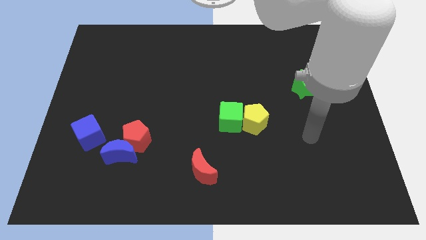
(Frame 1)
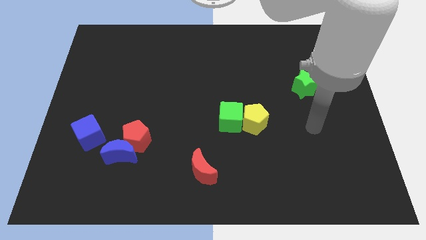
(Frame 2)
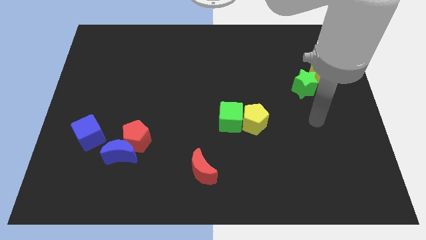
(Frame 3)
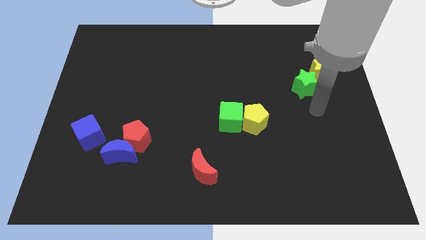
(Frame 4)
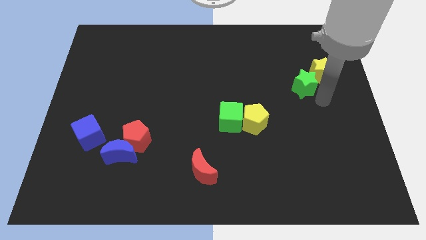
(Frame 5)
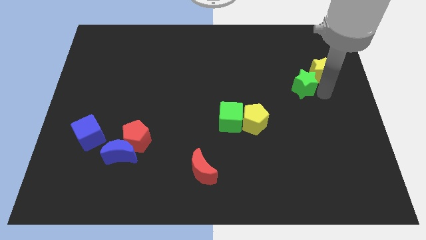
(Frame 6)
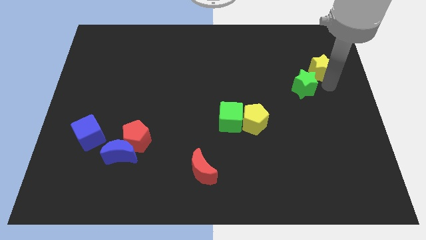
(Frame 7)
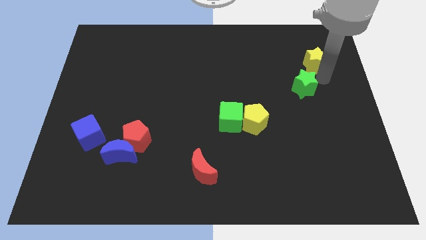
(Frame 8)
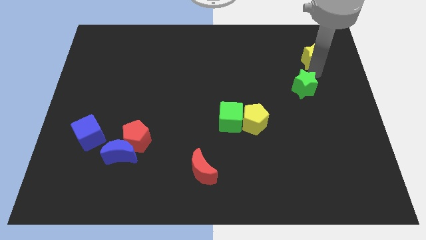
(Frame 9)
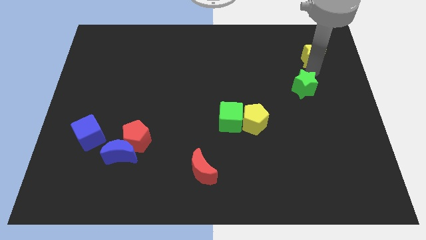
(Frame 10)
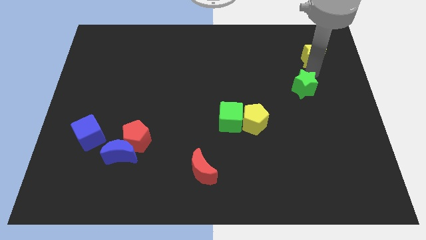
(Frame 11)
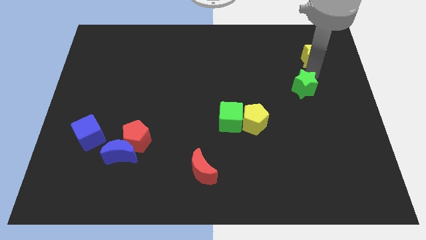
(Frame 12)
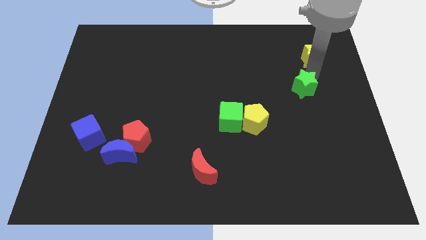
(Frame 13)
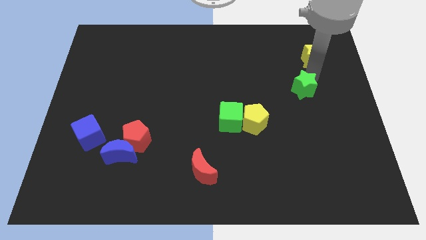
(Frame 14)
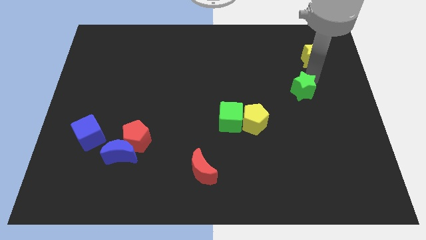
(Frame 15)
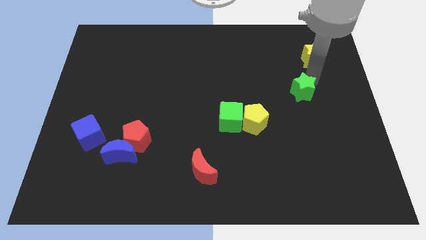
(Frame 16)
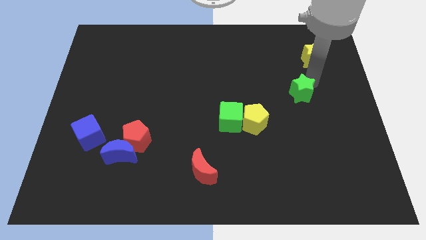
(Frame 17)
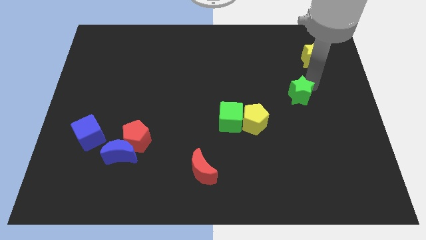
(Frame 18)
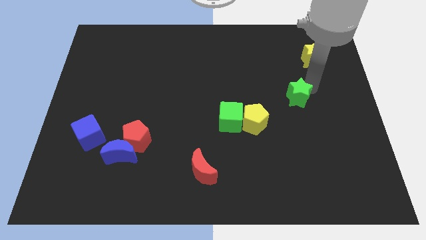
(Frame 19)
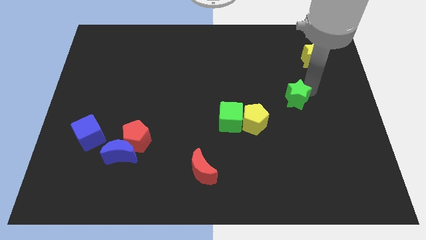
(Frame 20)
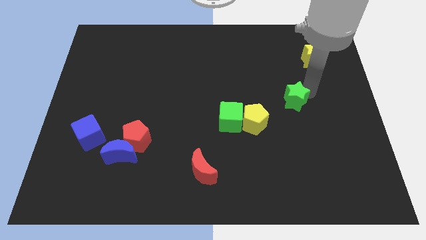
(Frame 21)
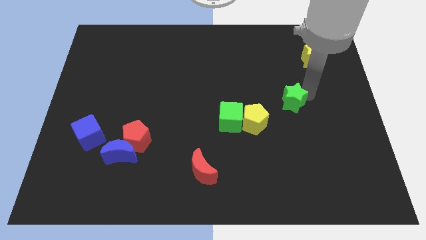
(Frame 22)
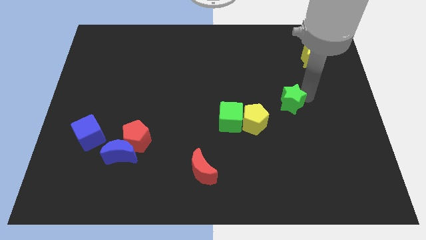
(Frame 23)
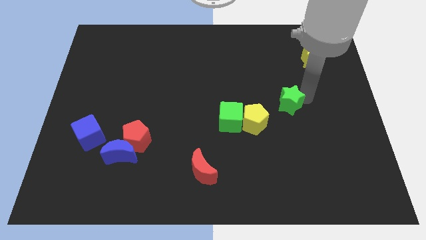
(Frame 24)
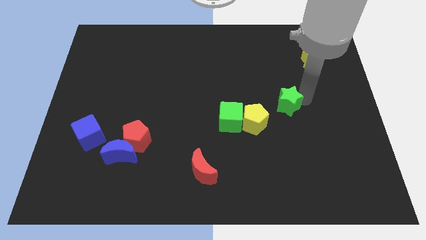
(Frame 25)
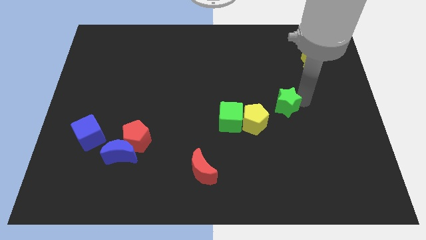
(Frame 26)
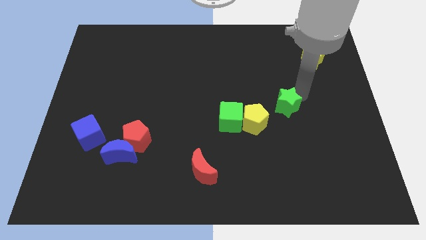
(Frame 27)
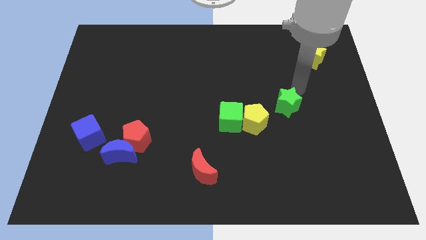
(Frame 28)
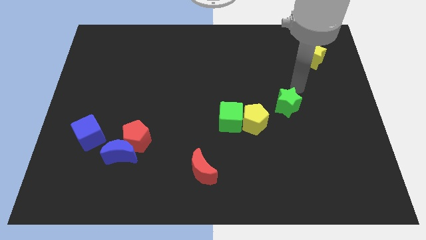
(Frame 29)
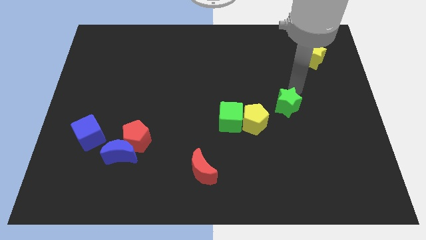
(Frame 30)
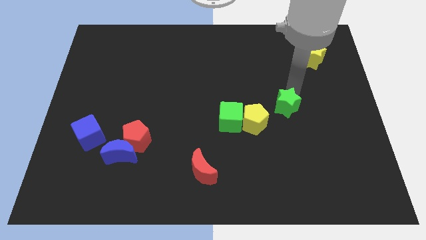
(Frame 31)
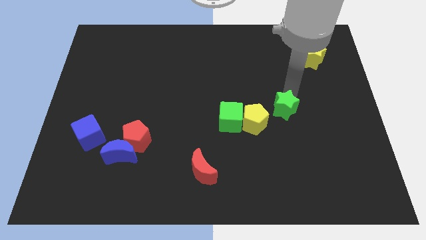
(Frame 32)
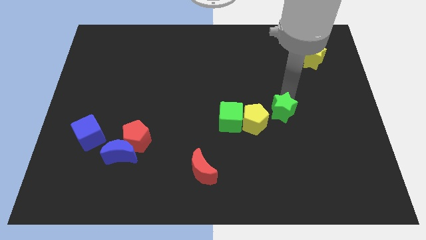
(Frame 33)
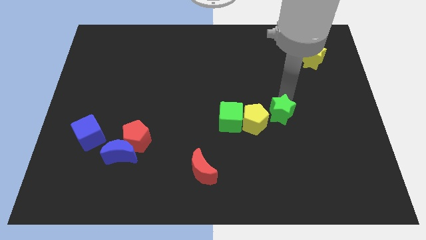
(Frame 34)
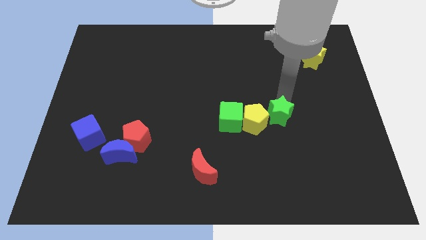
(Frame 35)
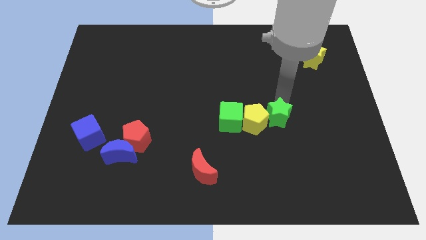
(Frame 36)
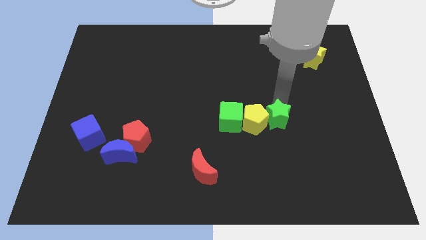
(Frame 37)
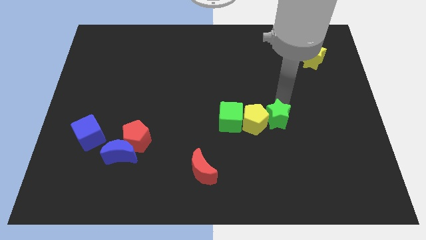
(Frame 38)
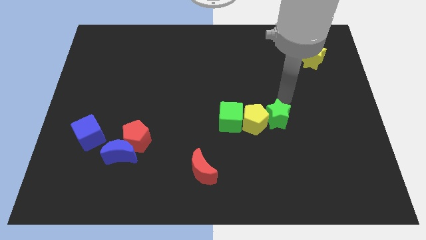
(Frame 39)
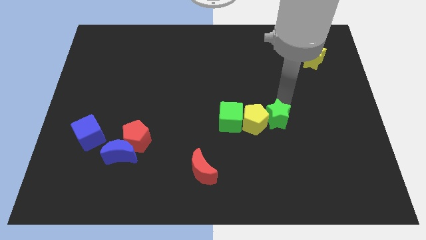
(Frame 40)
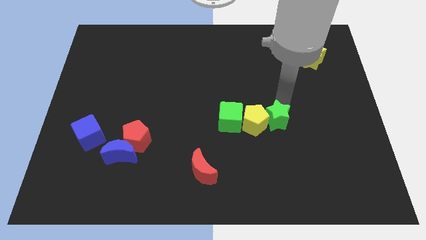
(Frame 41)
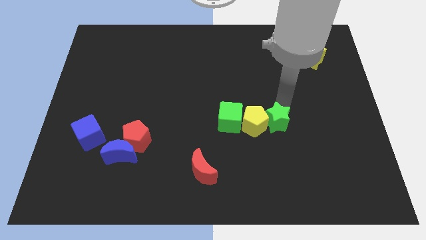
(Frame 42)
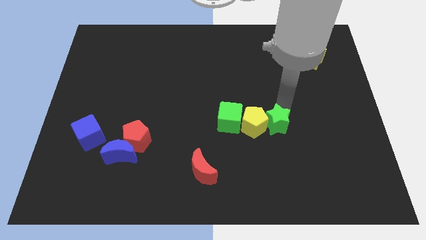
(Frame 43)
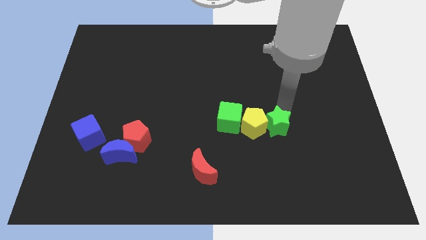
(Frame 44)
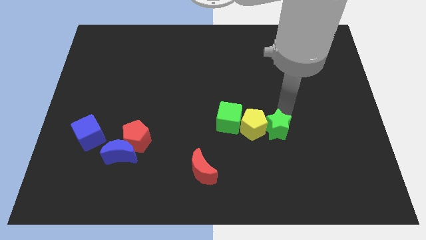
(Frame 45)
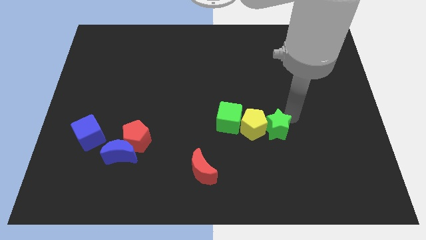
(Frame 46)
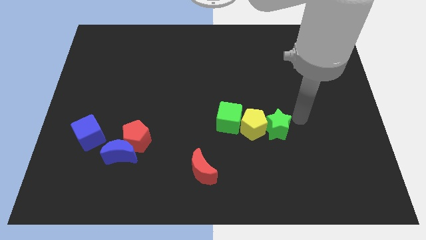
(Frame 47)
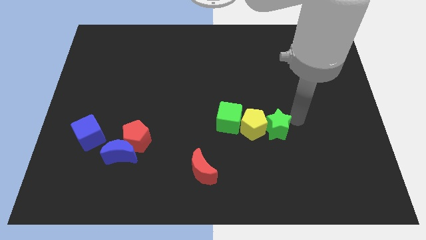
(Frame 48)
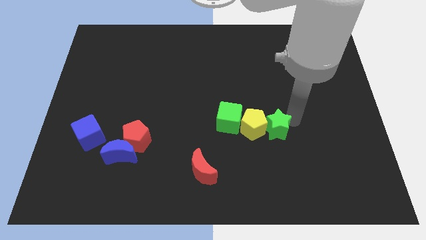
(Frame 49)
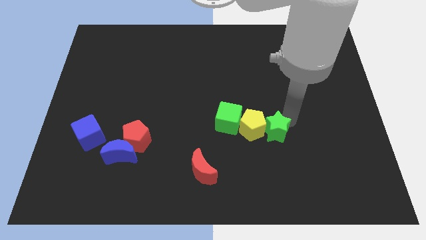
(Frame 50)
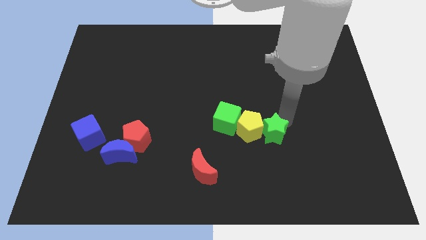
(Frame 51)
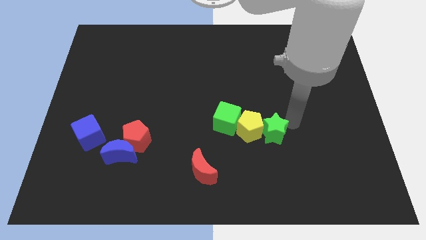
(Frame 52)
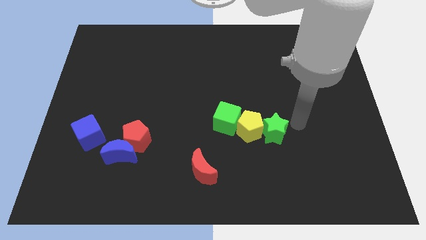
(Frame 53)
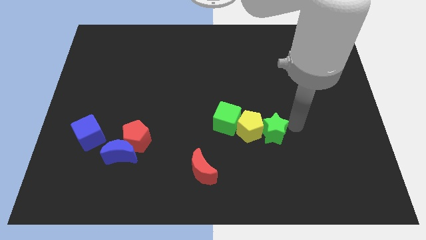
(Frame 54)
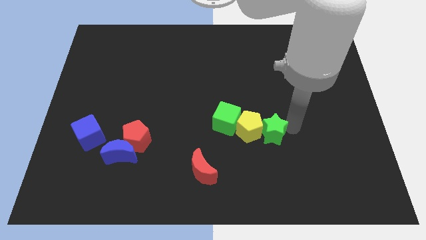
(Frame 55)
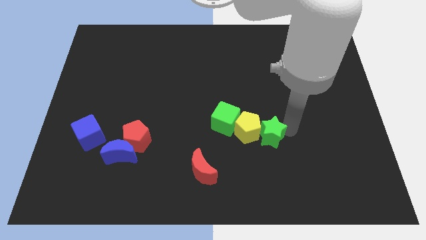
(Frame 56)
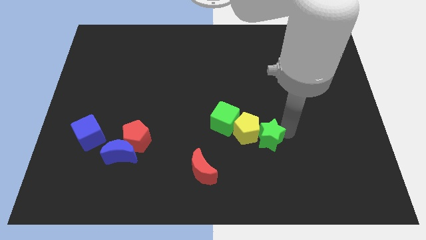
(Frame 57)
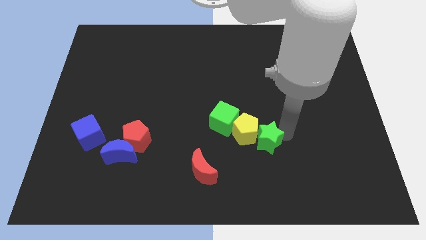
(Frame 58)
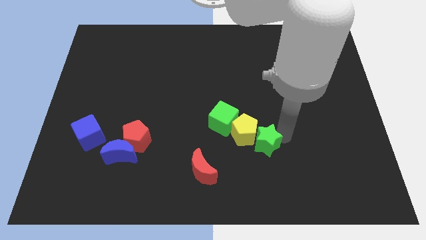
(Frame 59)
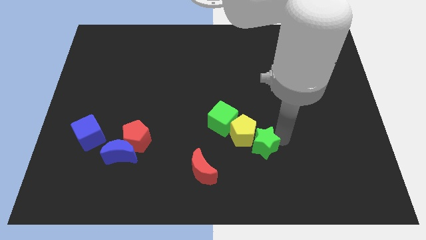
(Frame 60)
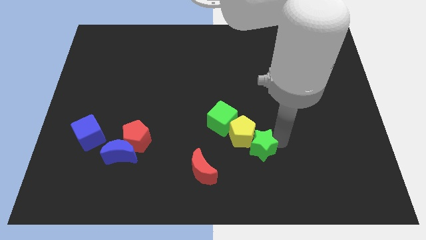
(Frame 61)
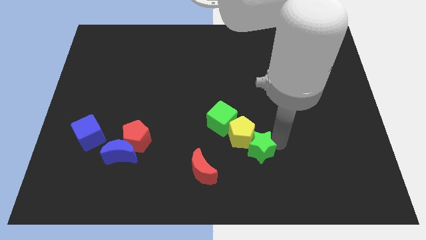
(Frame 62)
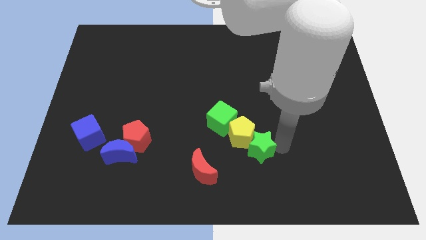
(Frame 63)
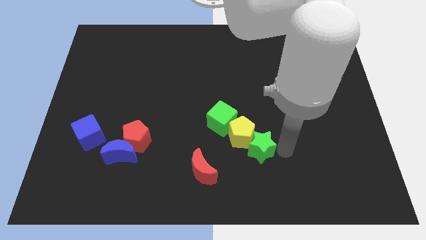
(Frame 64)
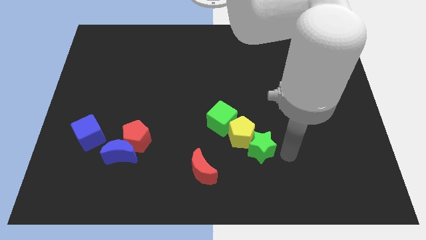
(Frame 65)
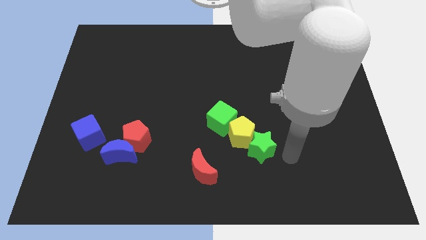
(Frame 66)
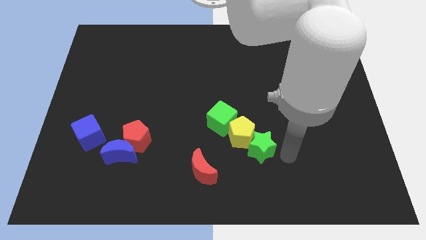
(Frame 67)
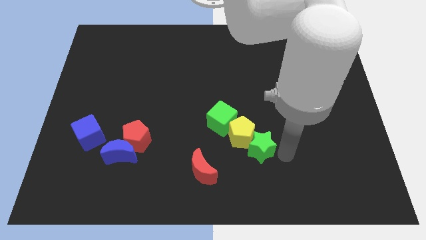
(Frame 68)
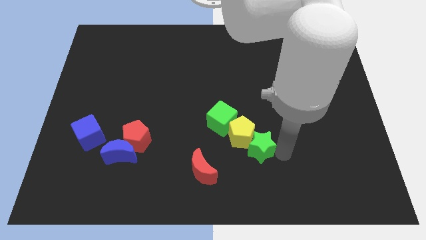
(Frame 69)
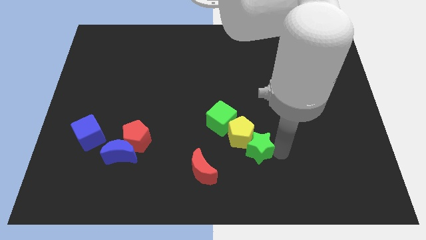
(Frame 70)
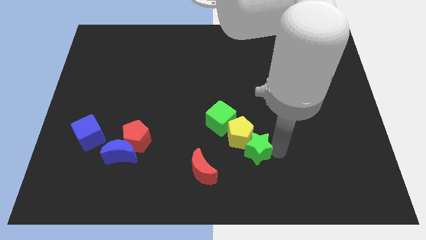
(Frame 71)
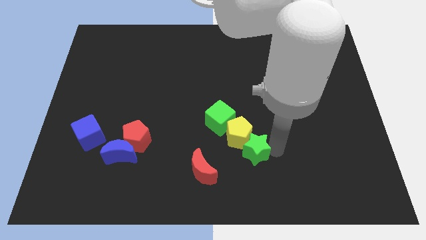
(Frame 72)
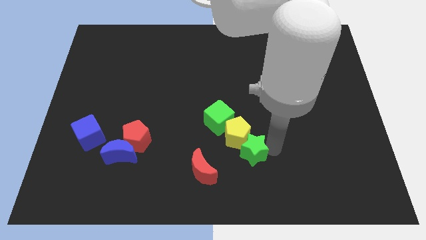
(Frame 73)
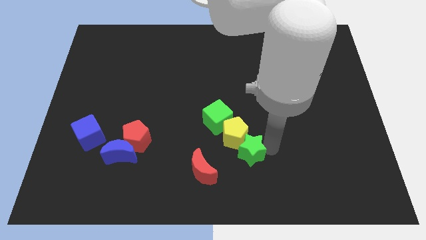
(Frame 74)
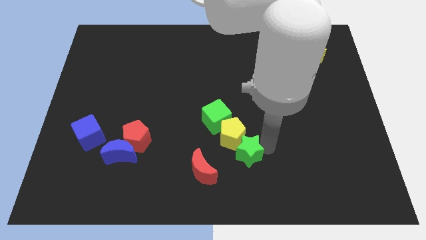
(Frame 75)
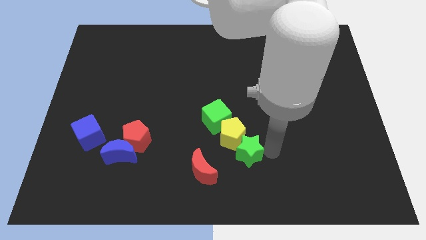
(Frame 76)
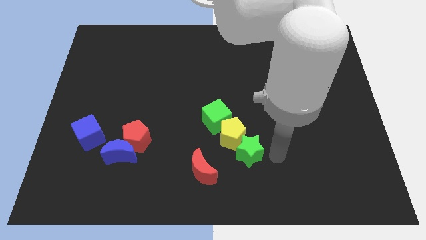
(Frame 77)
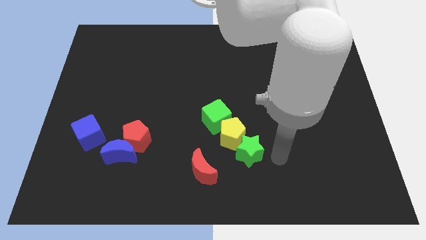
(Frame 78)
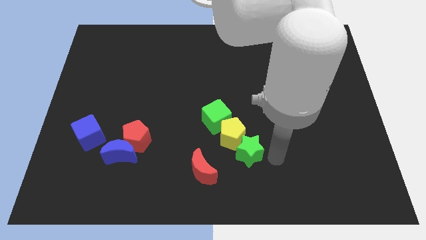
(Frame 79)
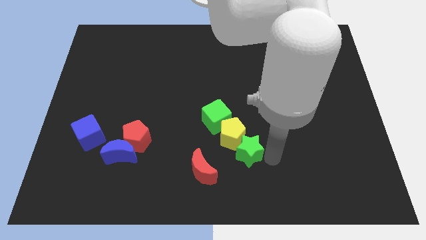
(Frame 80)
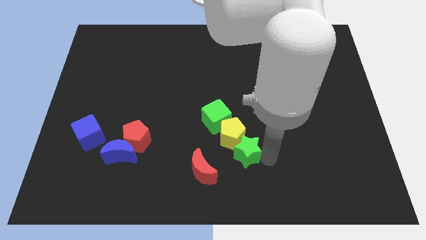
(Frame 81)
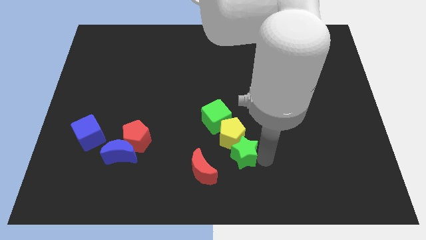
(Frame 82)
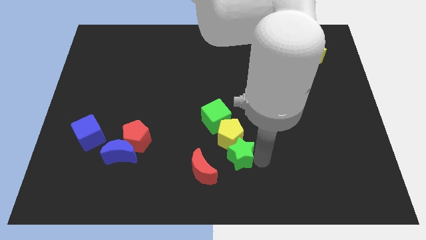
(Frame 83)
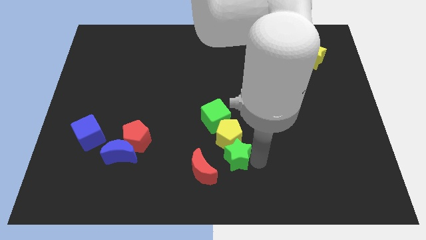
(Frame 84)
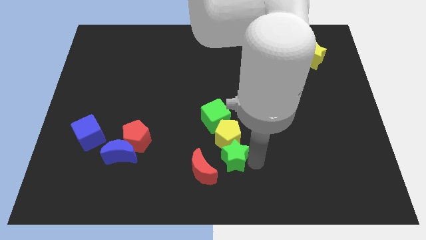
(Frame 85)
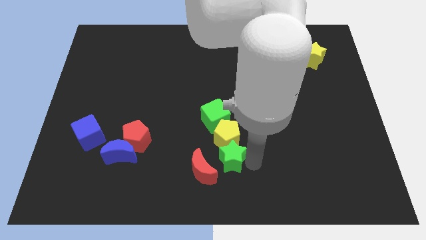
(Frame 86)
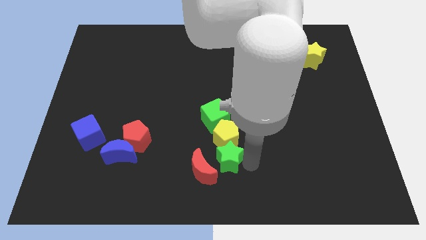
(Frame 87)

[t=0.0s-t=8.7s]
move the green star close to the red moon
